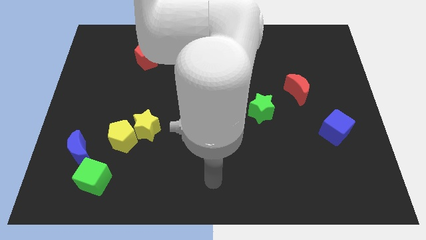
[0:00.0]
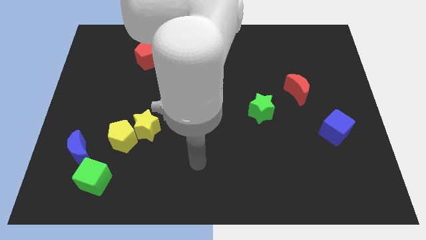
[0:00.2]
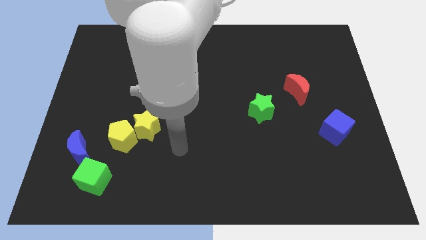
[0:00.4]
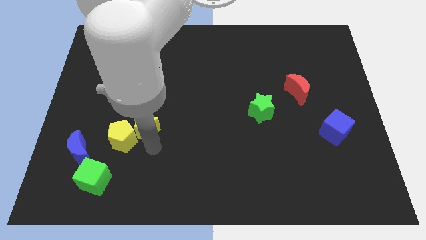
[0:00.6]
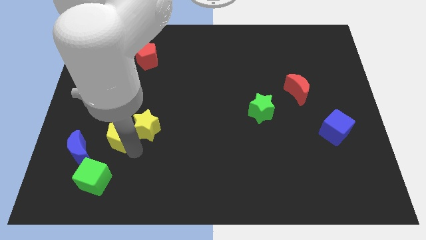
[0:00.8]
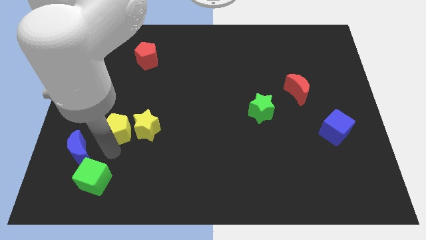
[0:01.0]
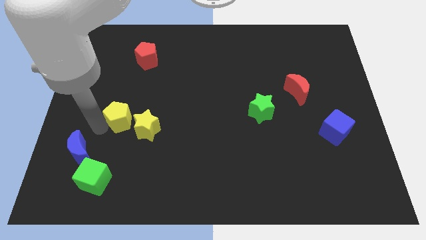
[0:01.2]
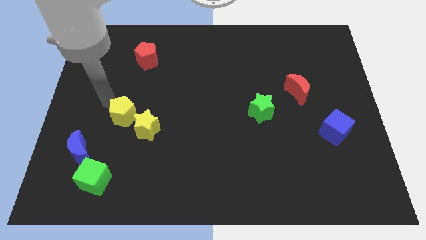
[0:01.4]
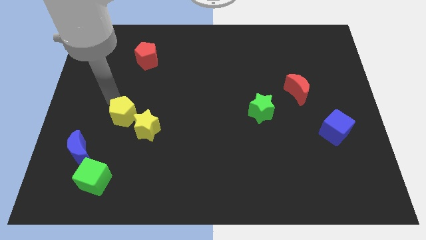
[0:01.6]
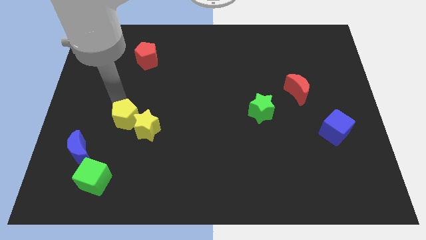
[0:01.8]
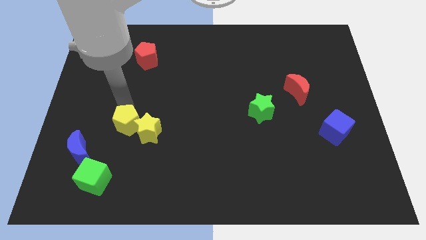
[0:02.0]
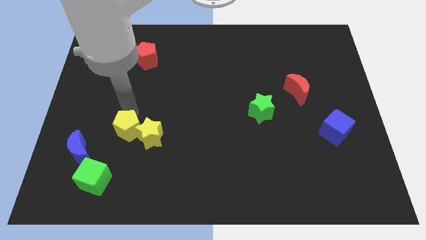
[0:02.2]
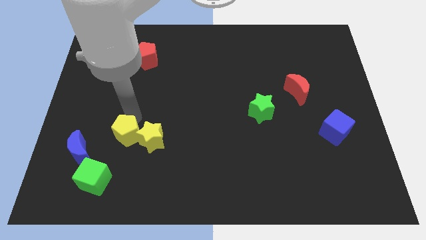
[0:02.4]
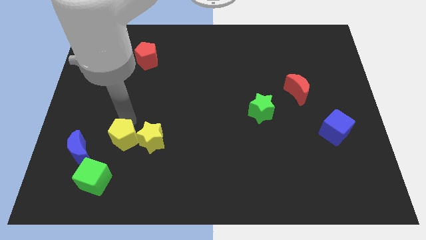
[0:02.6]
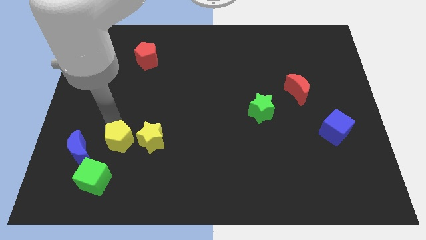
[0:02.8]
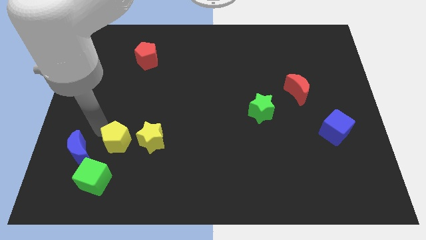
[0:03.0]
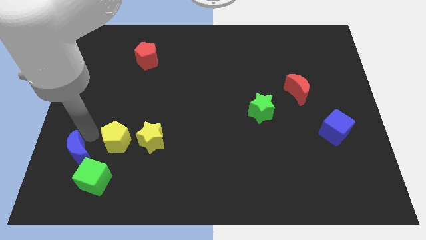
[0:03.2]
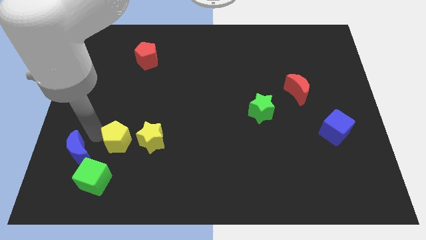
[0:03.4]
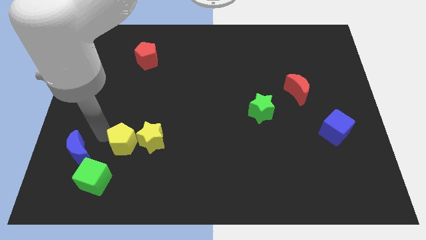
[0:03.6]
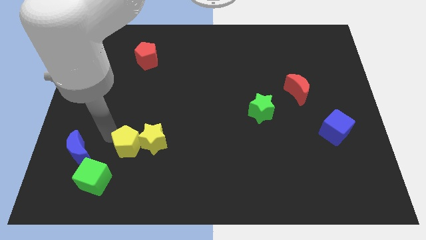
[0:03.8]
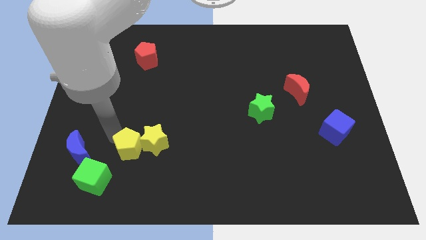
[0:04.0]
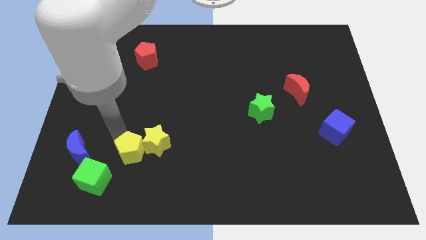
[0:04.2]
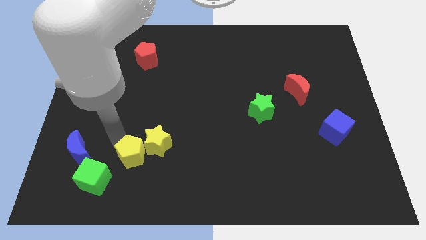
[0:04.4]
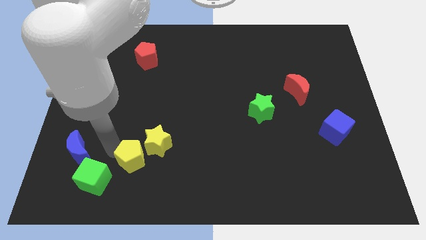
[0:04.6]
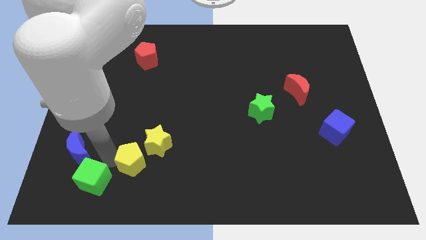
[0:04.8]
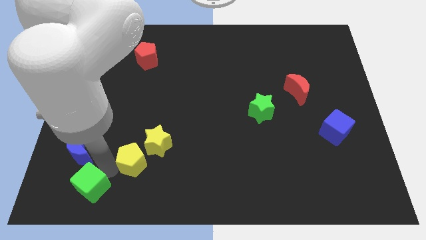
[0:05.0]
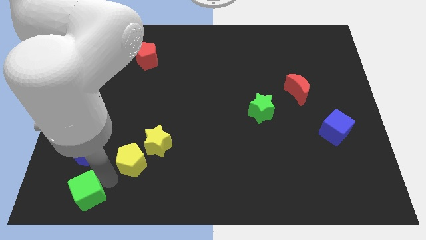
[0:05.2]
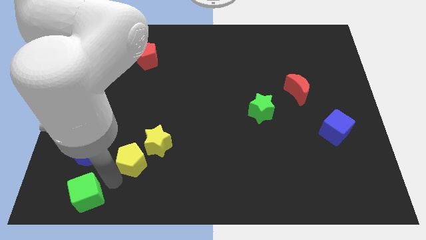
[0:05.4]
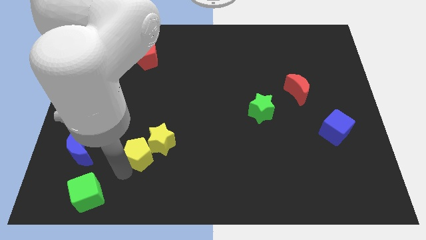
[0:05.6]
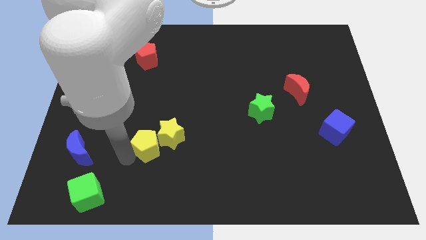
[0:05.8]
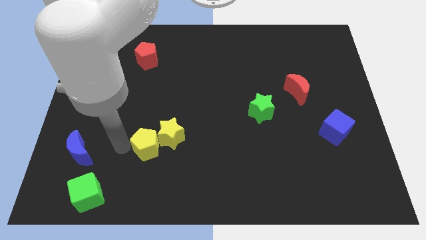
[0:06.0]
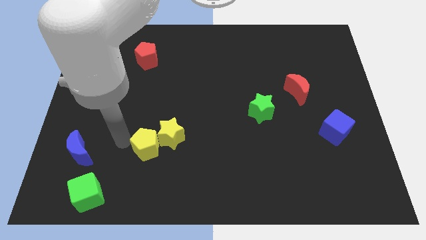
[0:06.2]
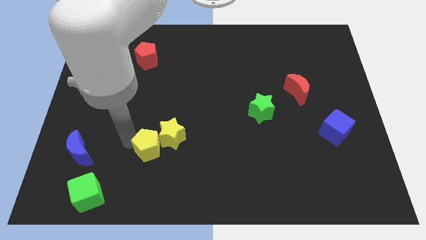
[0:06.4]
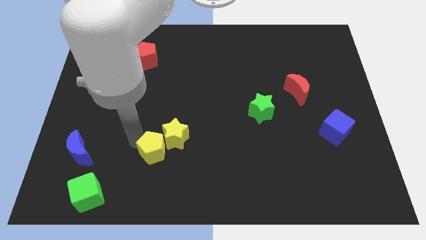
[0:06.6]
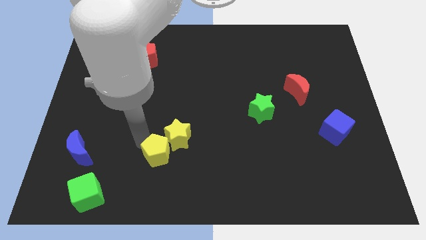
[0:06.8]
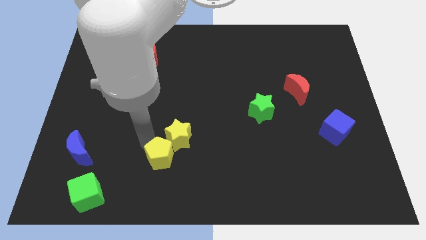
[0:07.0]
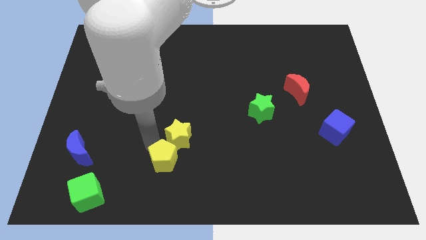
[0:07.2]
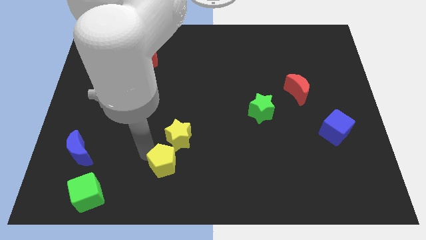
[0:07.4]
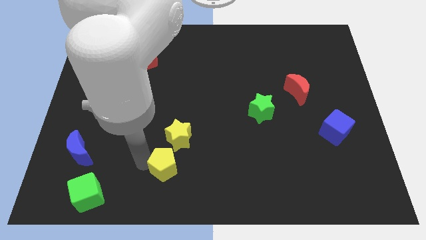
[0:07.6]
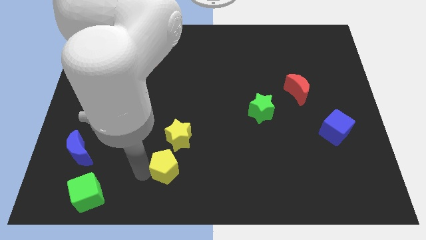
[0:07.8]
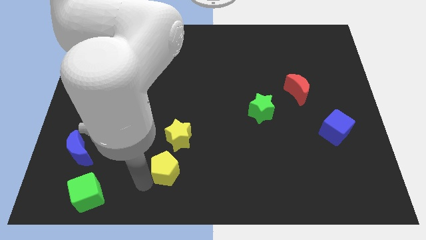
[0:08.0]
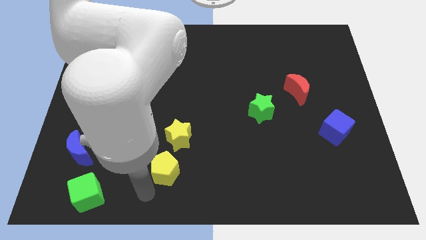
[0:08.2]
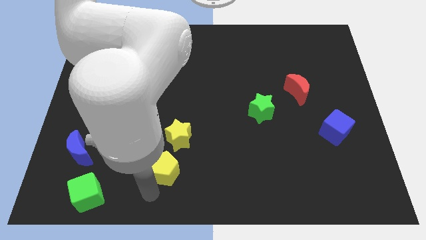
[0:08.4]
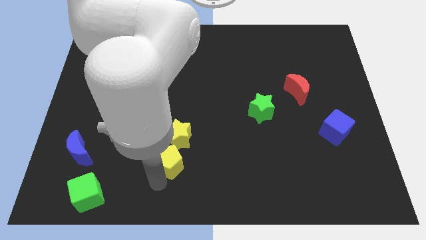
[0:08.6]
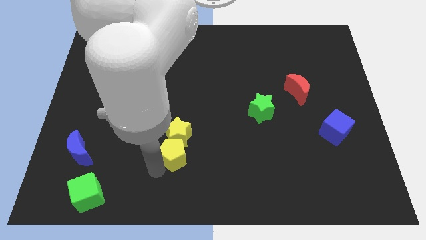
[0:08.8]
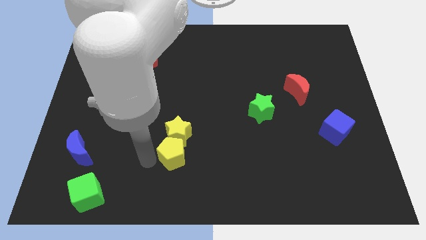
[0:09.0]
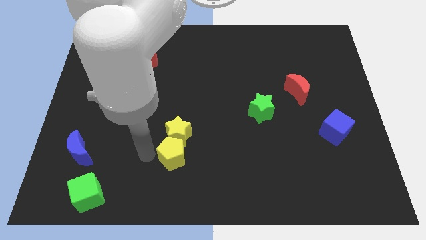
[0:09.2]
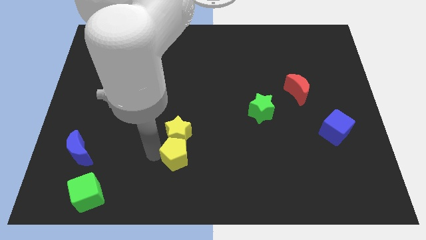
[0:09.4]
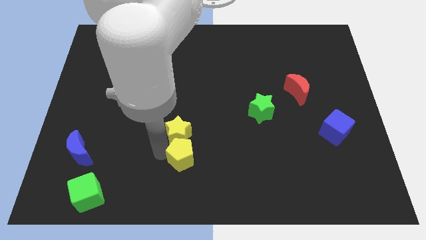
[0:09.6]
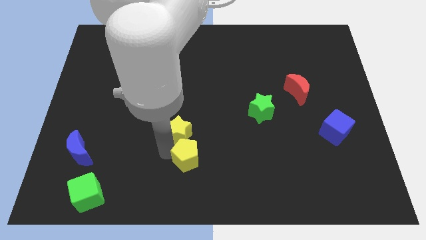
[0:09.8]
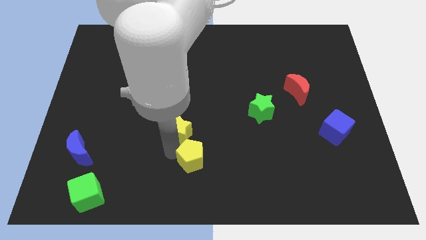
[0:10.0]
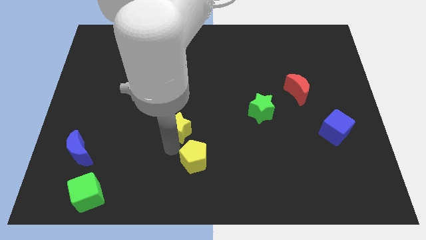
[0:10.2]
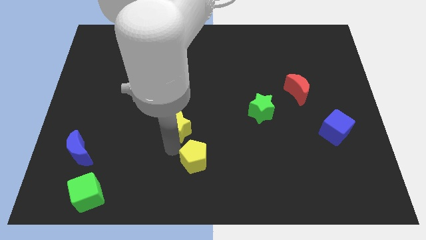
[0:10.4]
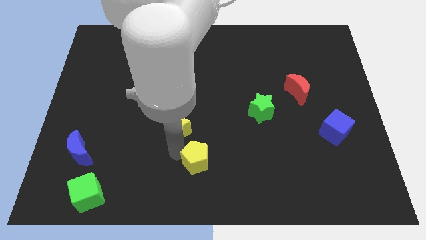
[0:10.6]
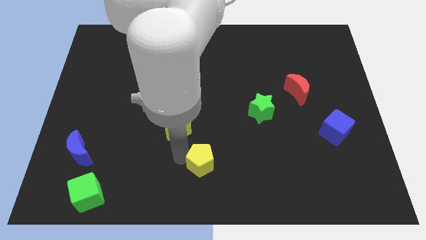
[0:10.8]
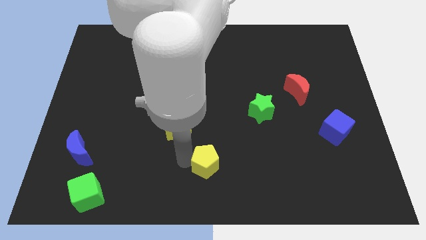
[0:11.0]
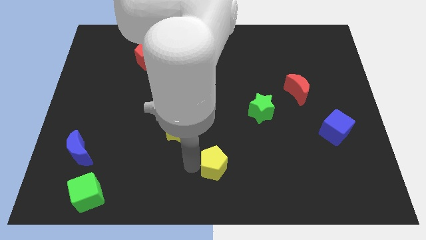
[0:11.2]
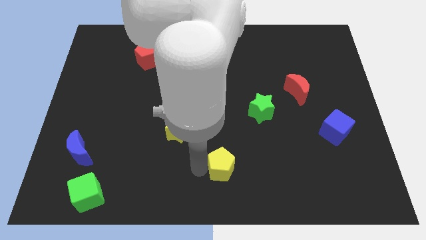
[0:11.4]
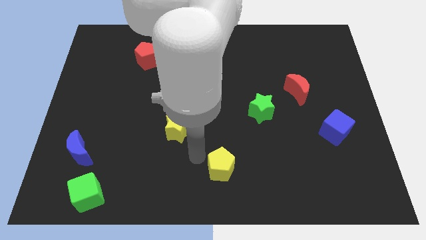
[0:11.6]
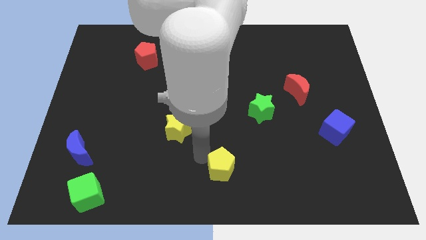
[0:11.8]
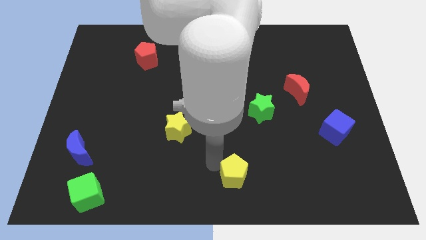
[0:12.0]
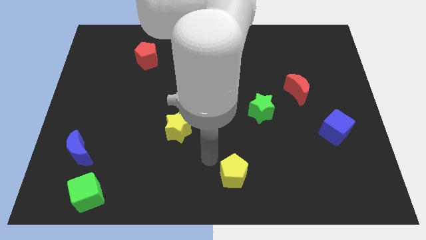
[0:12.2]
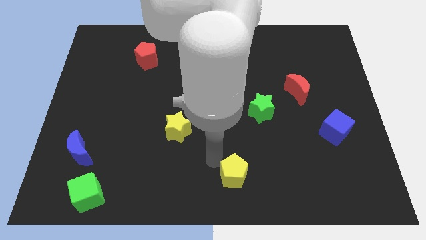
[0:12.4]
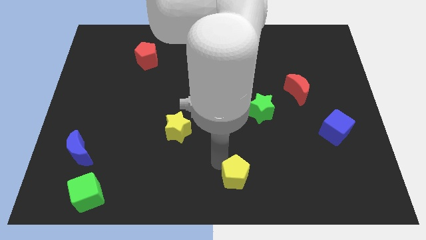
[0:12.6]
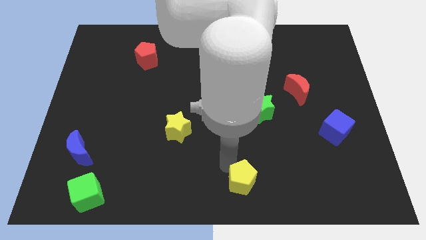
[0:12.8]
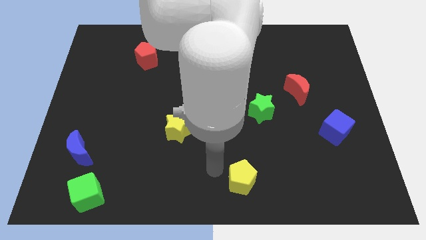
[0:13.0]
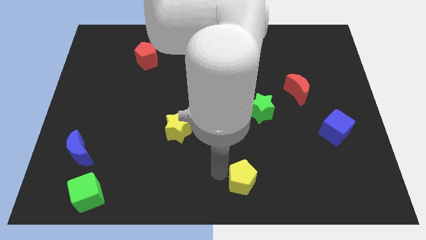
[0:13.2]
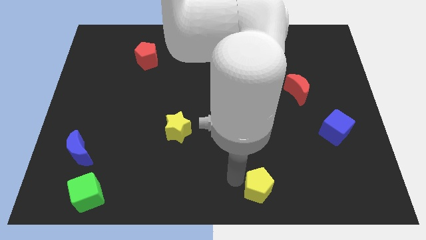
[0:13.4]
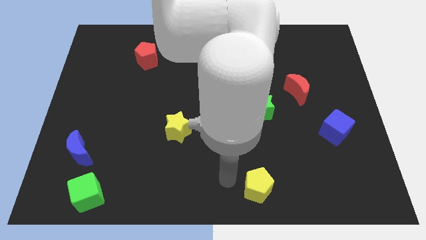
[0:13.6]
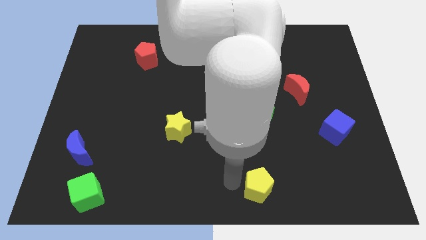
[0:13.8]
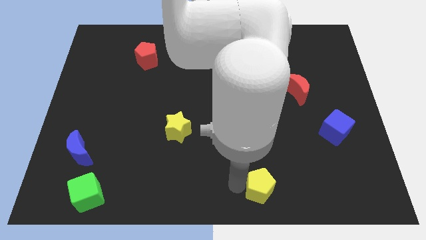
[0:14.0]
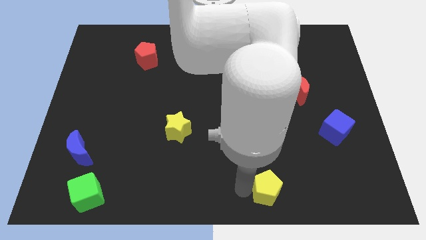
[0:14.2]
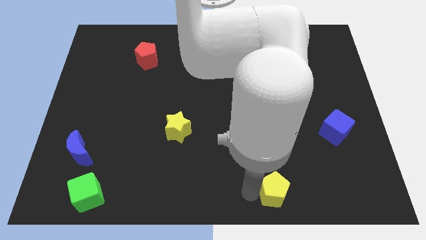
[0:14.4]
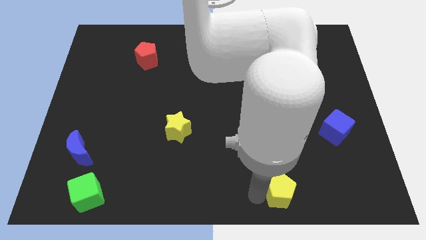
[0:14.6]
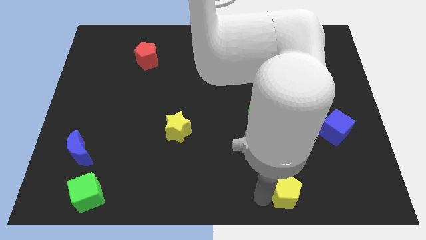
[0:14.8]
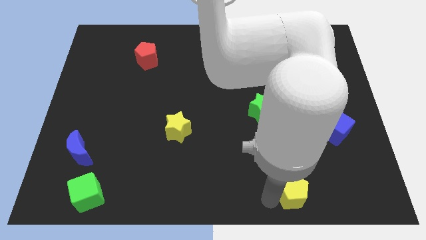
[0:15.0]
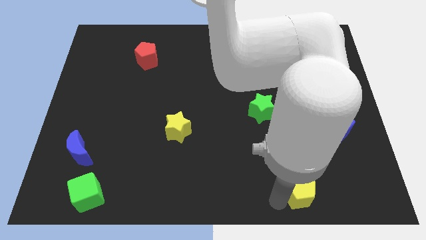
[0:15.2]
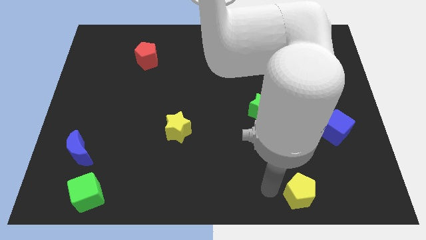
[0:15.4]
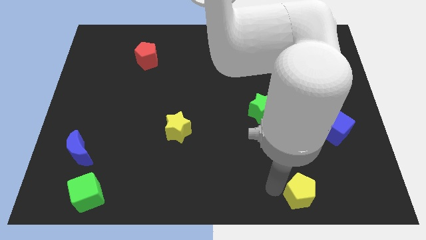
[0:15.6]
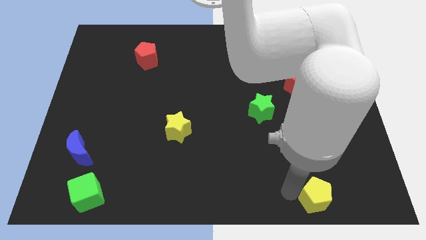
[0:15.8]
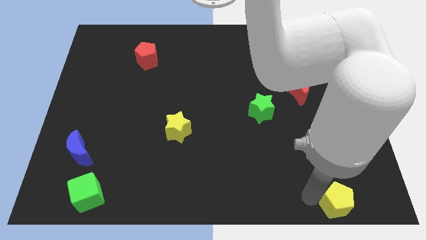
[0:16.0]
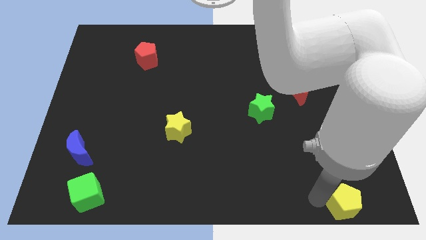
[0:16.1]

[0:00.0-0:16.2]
slide the yellow pentagon to the bottom right of the board
